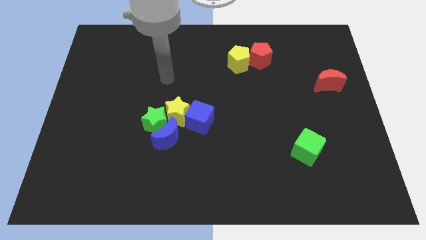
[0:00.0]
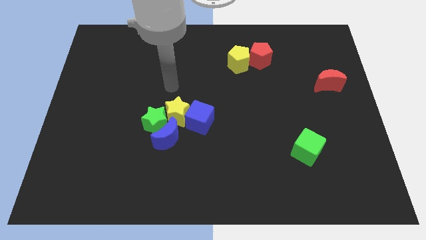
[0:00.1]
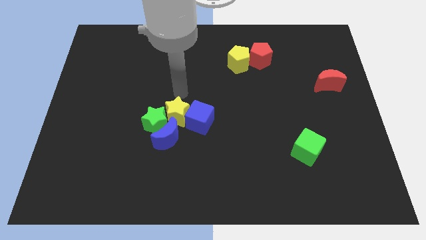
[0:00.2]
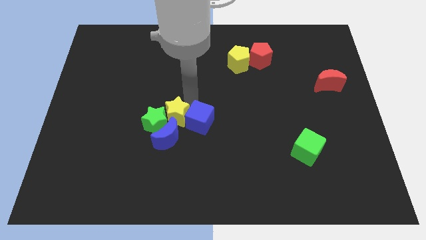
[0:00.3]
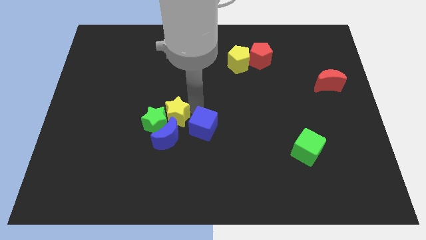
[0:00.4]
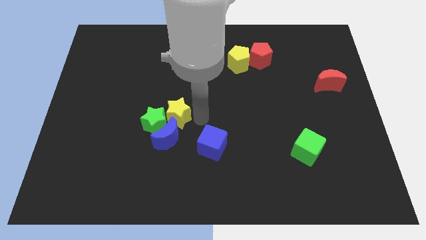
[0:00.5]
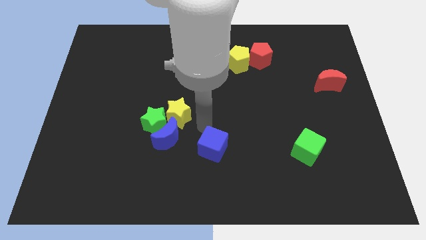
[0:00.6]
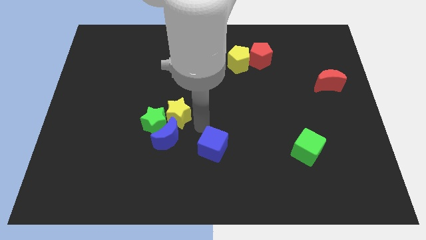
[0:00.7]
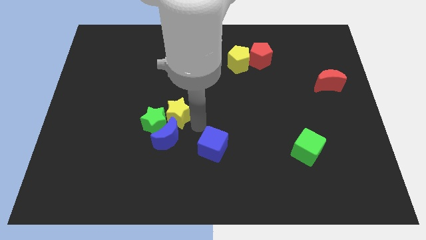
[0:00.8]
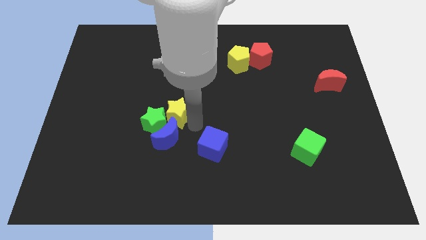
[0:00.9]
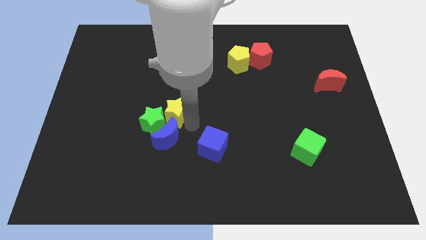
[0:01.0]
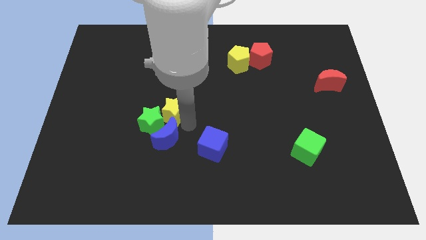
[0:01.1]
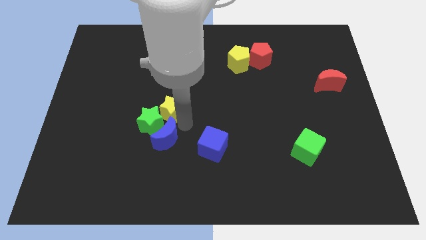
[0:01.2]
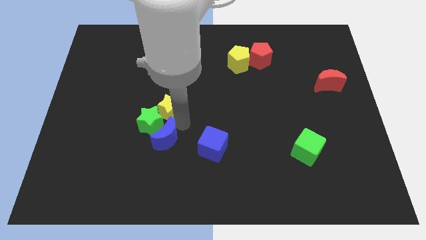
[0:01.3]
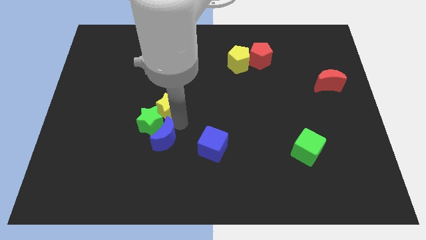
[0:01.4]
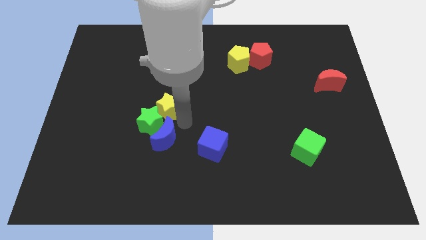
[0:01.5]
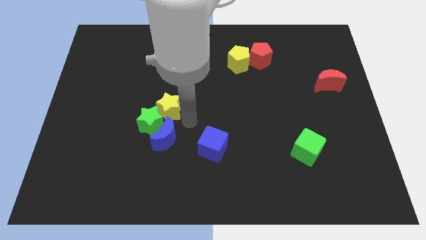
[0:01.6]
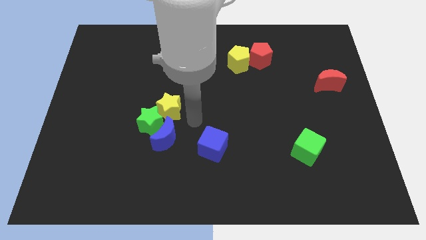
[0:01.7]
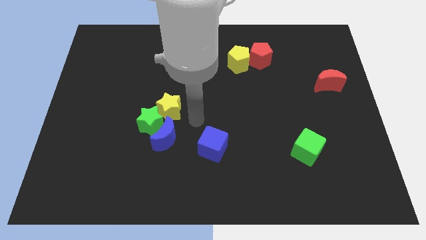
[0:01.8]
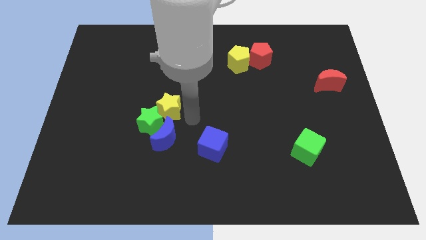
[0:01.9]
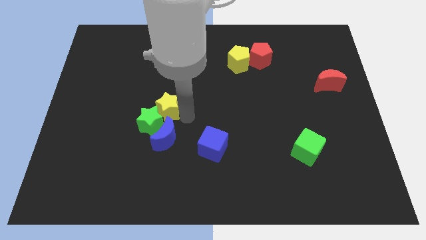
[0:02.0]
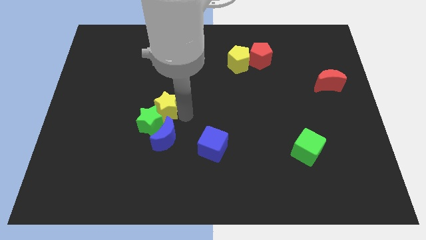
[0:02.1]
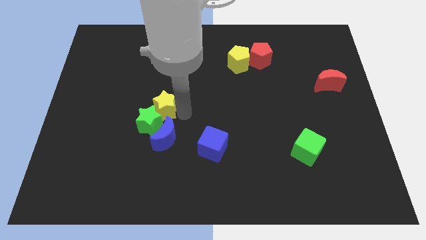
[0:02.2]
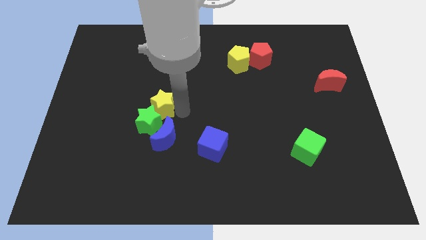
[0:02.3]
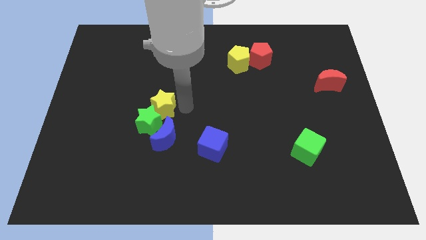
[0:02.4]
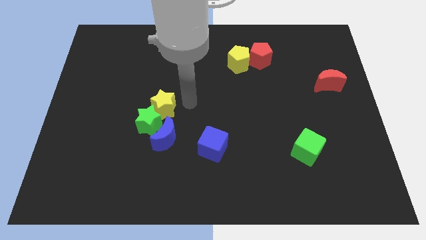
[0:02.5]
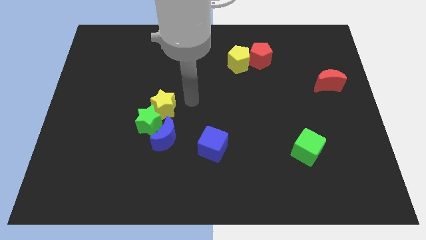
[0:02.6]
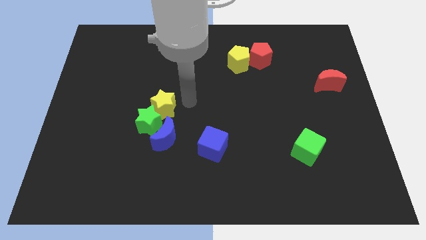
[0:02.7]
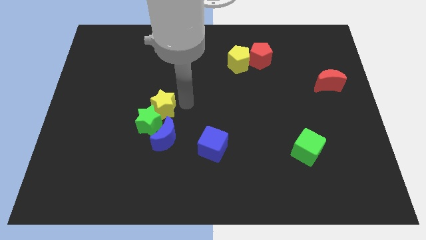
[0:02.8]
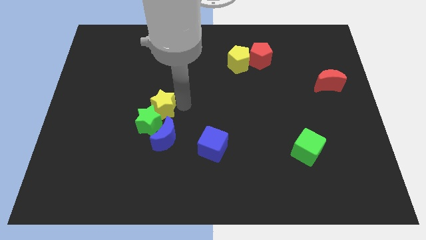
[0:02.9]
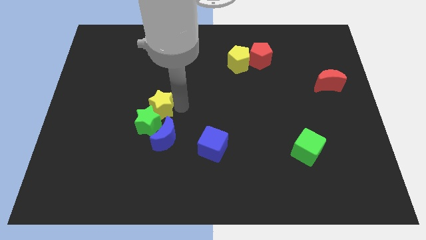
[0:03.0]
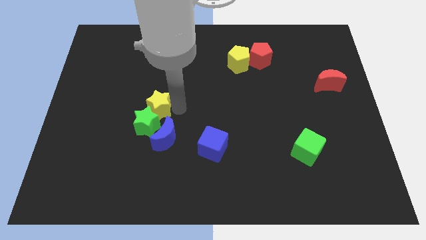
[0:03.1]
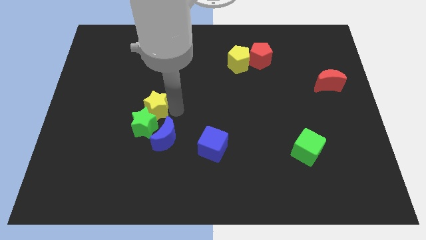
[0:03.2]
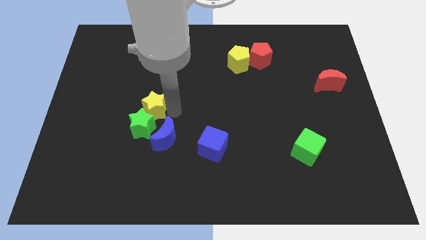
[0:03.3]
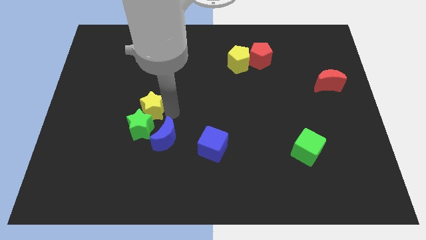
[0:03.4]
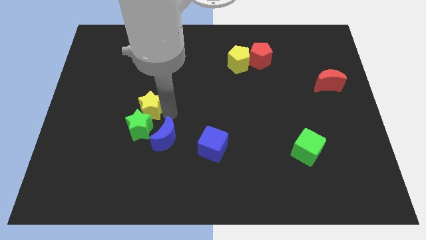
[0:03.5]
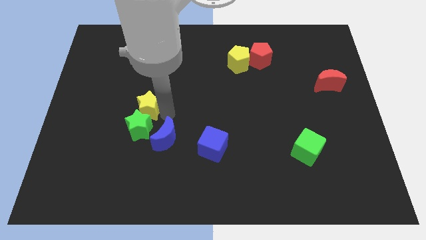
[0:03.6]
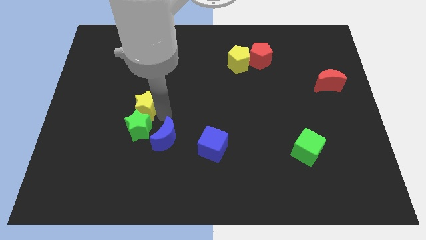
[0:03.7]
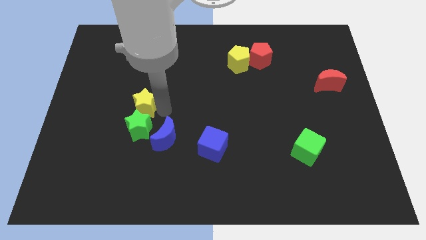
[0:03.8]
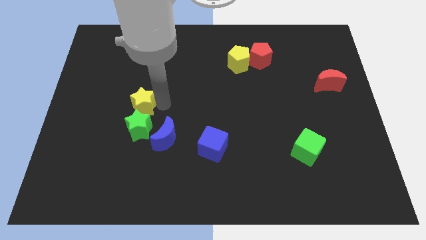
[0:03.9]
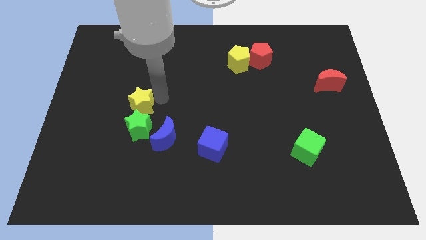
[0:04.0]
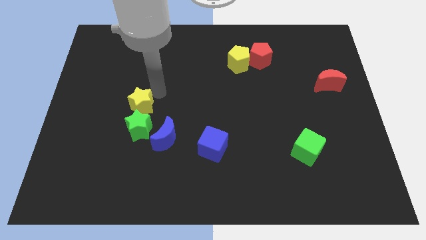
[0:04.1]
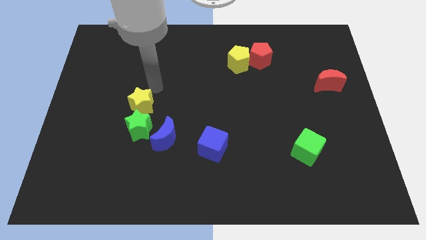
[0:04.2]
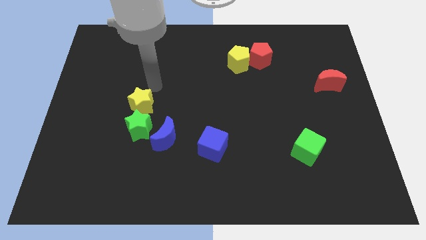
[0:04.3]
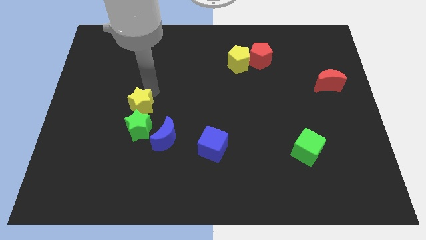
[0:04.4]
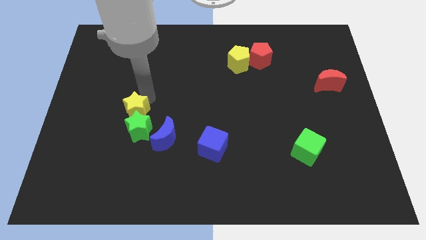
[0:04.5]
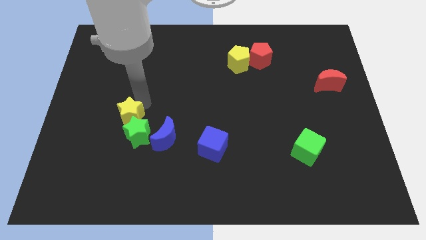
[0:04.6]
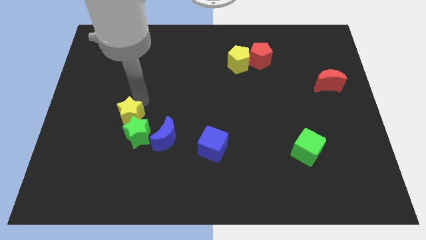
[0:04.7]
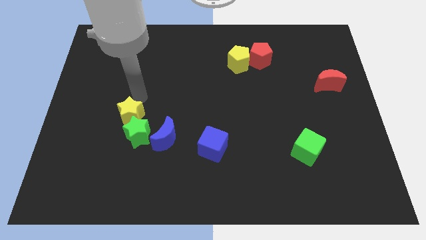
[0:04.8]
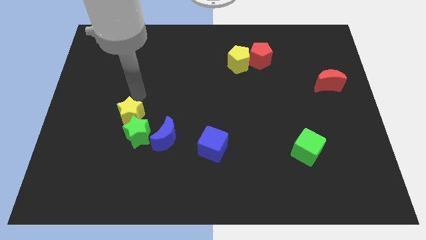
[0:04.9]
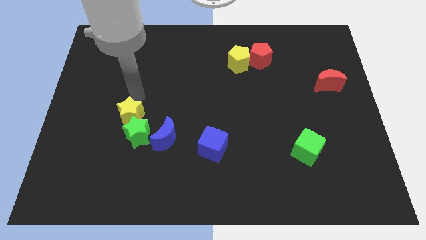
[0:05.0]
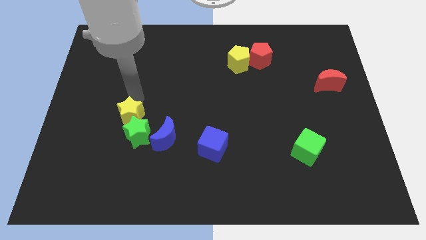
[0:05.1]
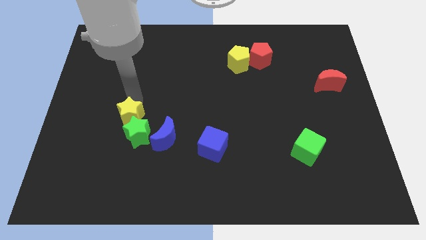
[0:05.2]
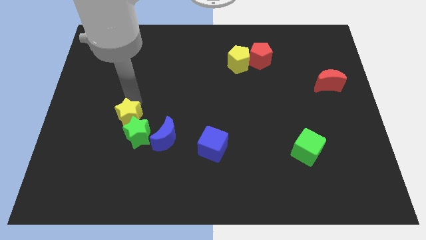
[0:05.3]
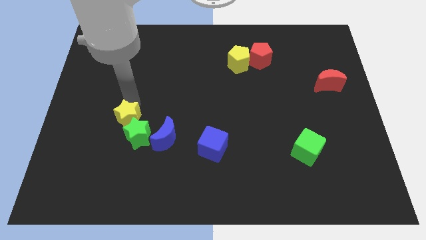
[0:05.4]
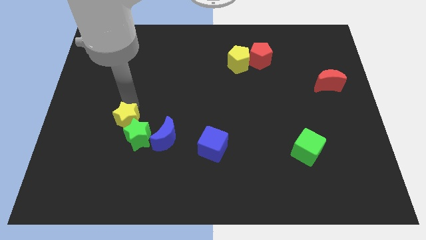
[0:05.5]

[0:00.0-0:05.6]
slightly move the yellow star diagonally downwards and left

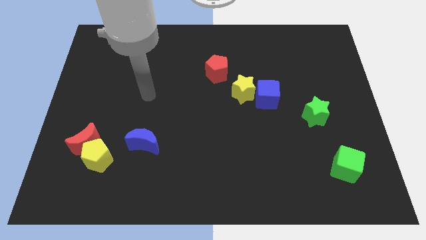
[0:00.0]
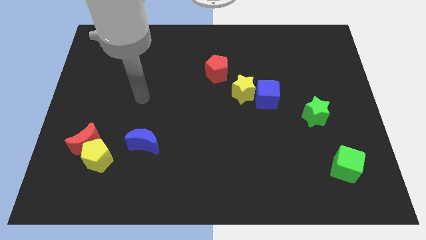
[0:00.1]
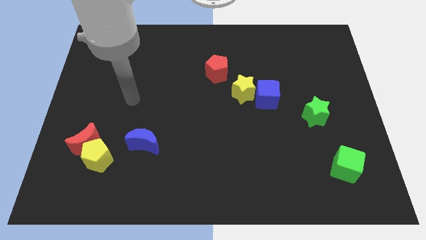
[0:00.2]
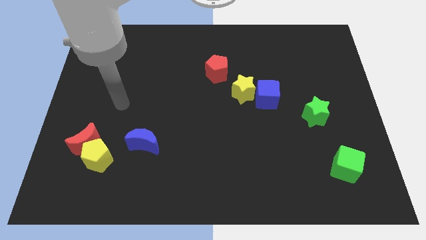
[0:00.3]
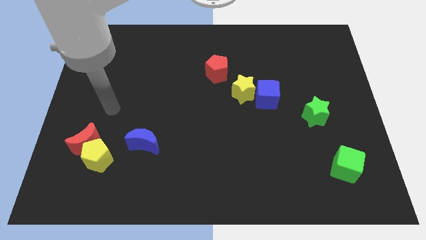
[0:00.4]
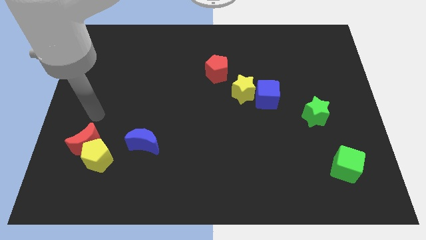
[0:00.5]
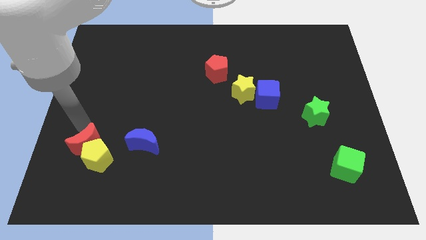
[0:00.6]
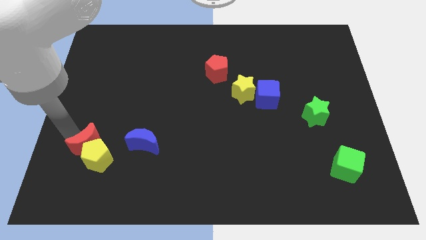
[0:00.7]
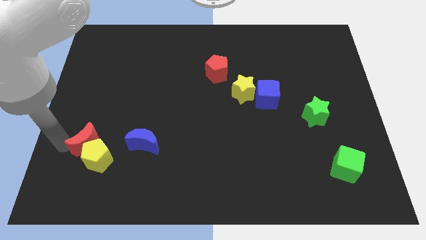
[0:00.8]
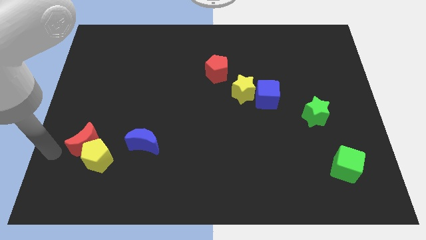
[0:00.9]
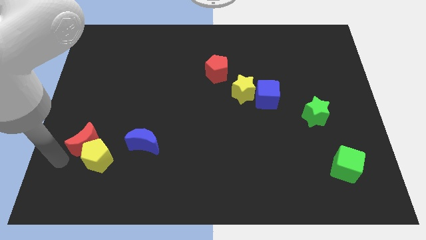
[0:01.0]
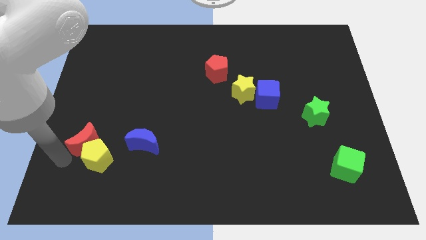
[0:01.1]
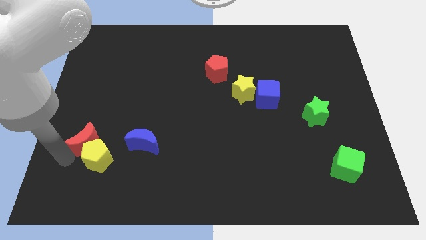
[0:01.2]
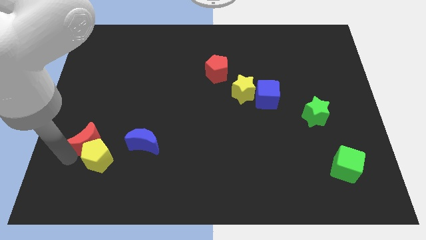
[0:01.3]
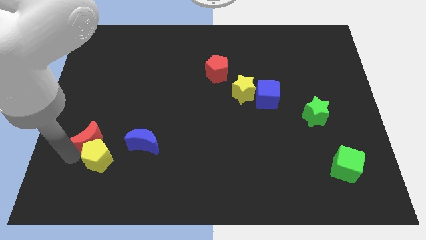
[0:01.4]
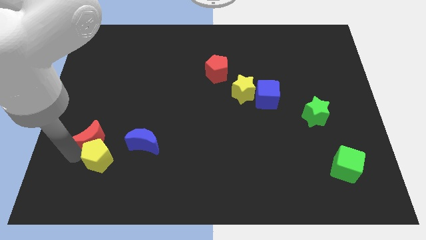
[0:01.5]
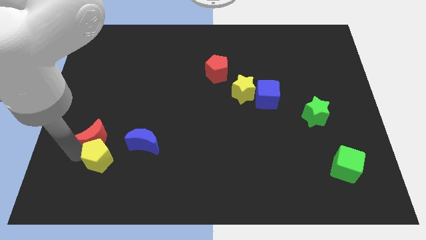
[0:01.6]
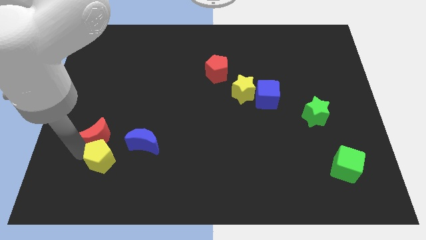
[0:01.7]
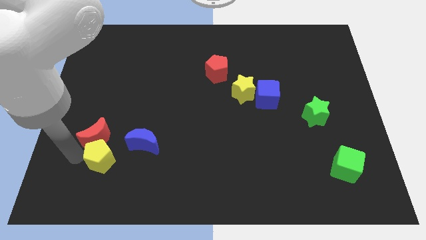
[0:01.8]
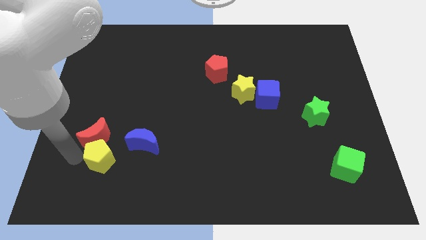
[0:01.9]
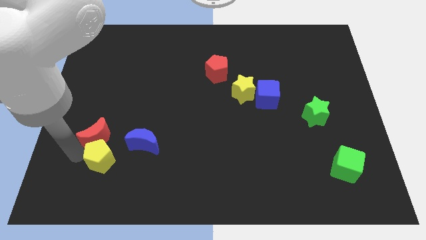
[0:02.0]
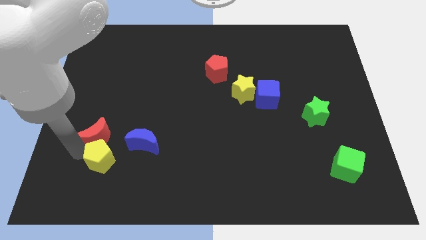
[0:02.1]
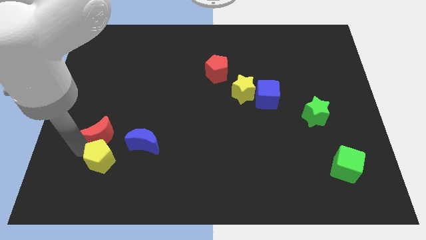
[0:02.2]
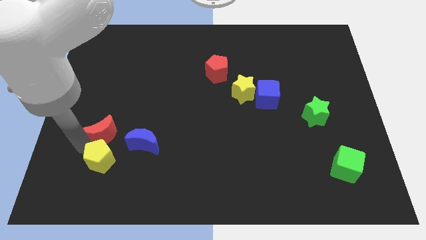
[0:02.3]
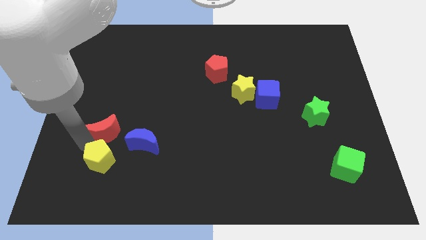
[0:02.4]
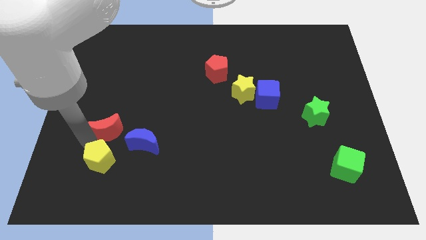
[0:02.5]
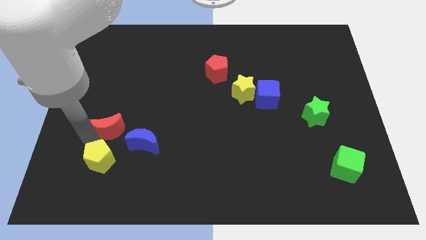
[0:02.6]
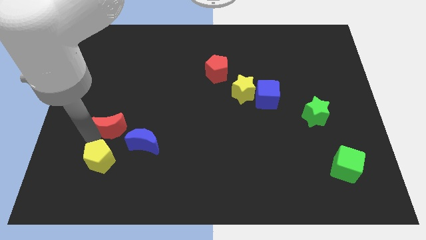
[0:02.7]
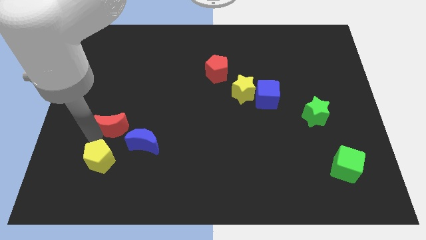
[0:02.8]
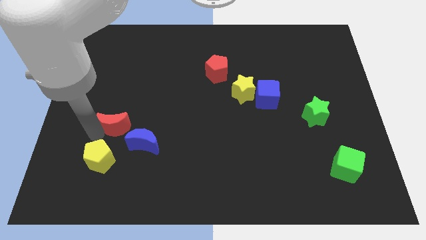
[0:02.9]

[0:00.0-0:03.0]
push the red moon slightly upwards and right diagonally
